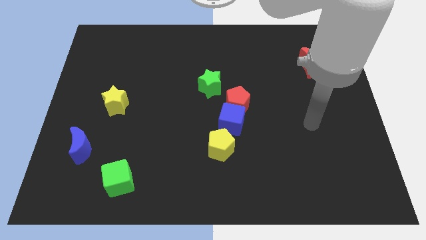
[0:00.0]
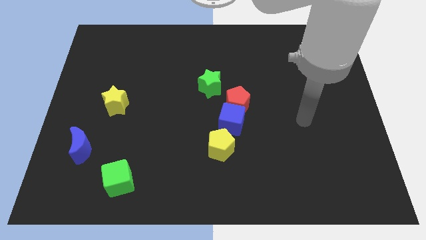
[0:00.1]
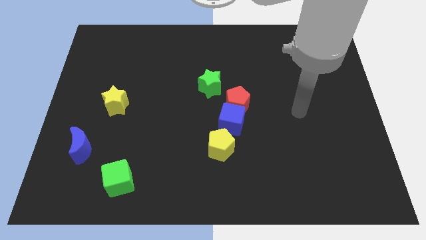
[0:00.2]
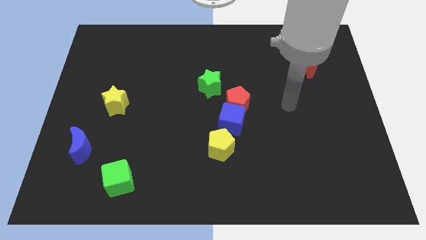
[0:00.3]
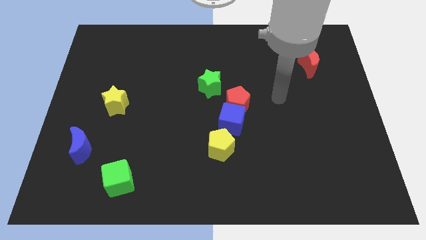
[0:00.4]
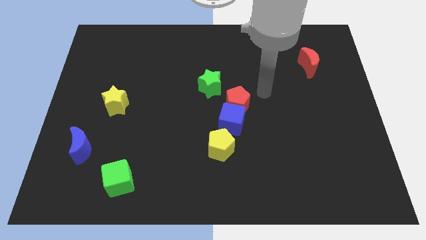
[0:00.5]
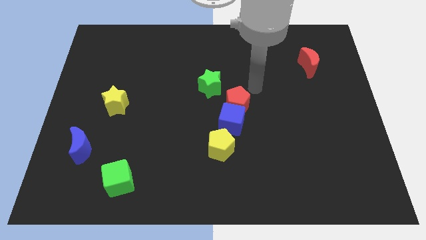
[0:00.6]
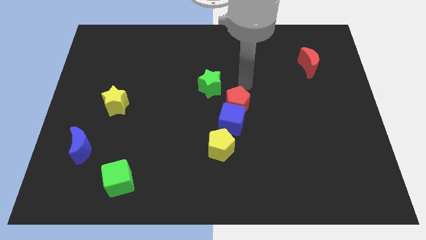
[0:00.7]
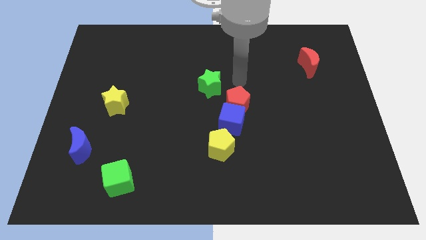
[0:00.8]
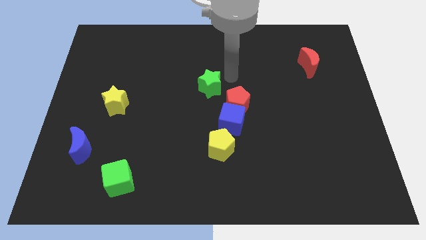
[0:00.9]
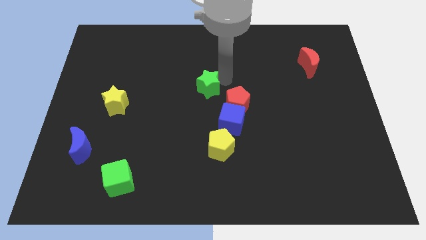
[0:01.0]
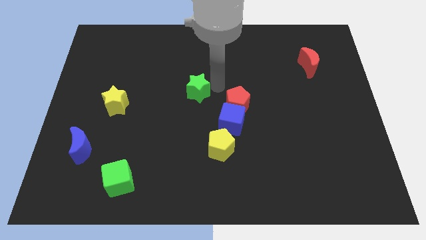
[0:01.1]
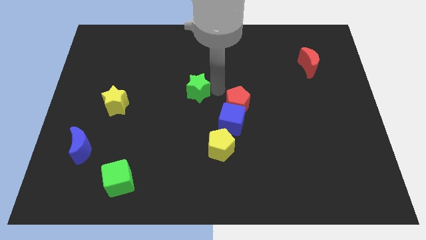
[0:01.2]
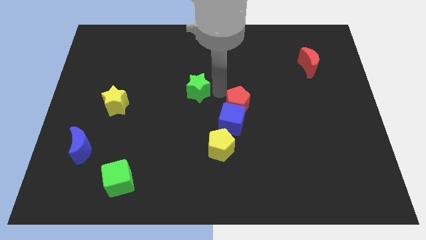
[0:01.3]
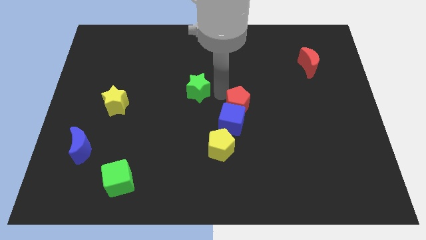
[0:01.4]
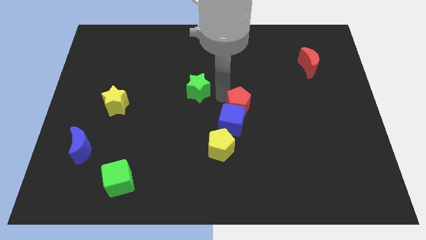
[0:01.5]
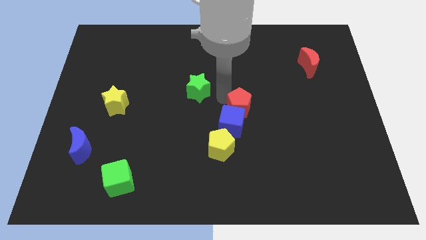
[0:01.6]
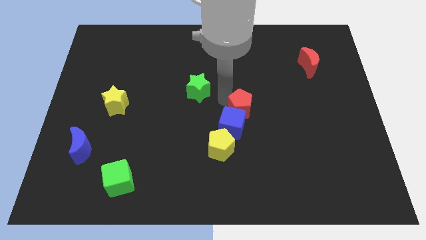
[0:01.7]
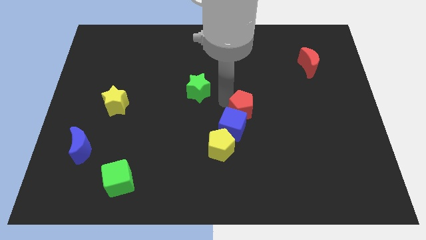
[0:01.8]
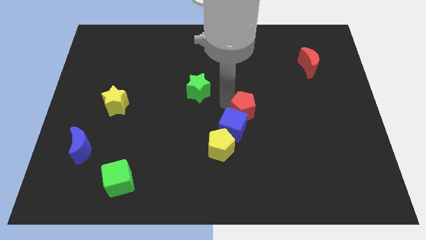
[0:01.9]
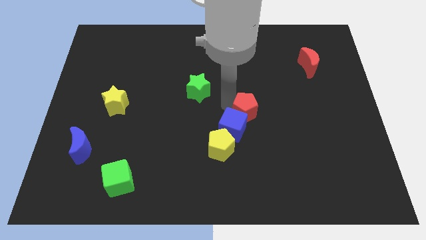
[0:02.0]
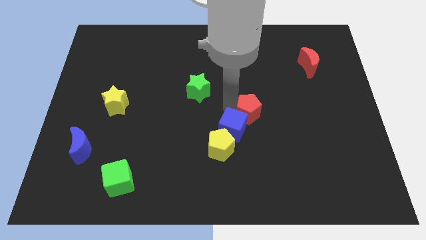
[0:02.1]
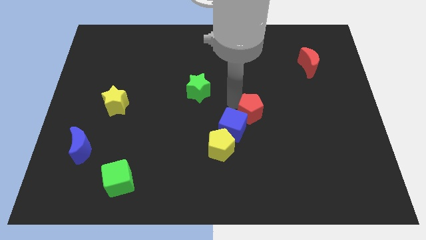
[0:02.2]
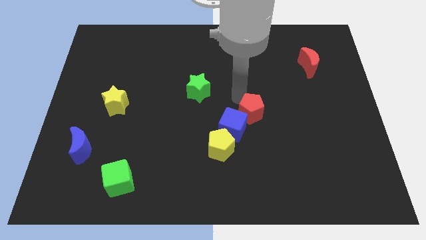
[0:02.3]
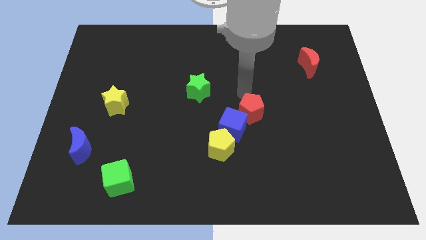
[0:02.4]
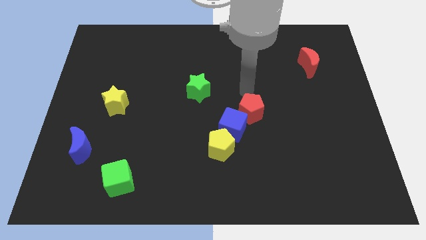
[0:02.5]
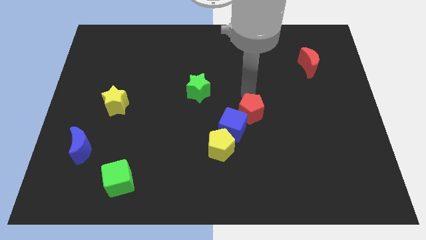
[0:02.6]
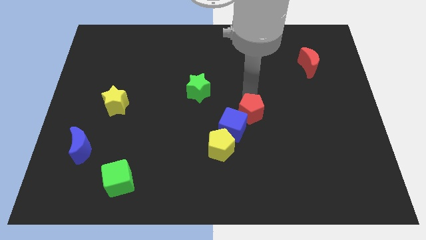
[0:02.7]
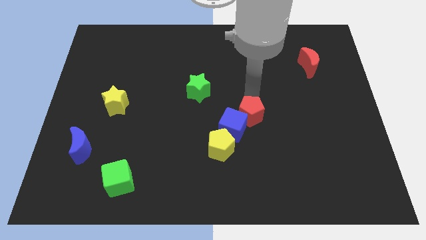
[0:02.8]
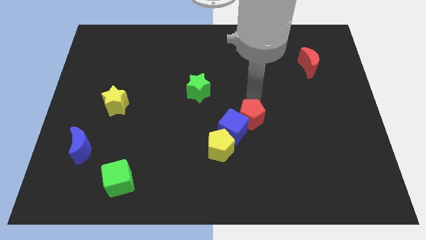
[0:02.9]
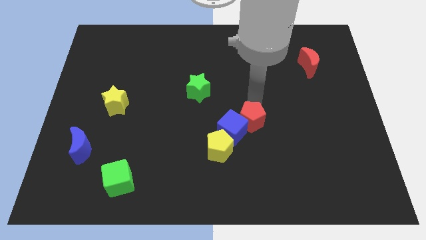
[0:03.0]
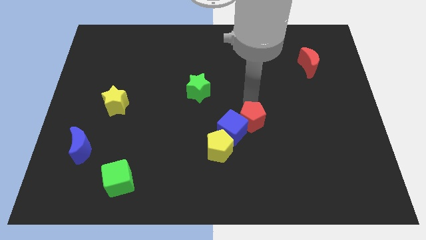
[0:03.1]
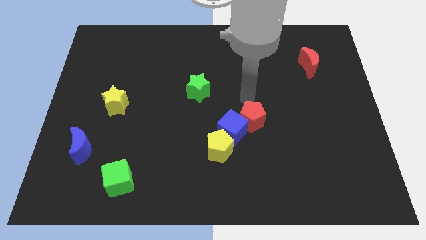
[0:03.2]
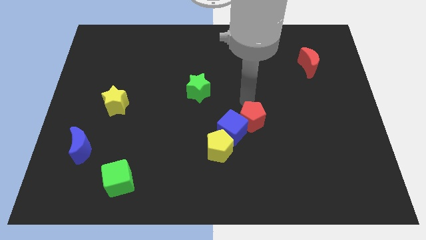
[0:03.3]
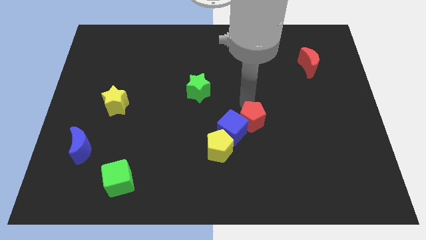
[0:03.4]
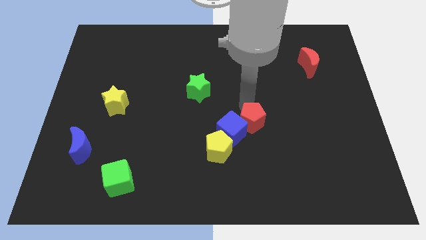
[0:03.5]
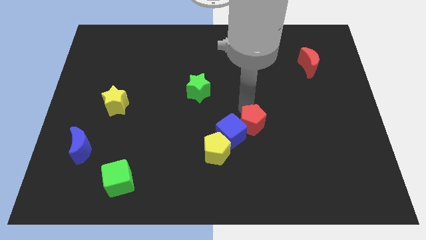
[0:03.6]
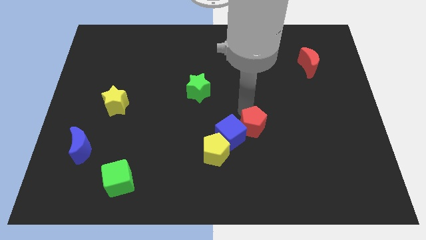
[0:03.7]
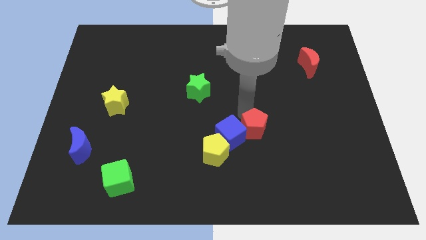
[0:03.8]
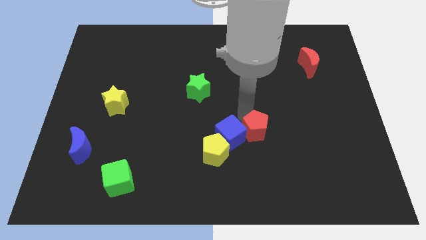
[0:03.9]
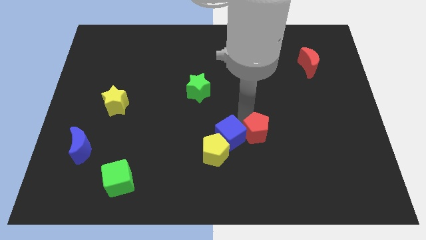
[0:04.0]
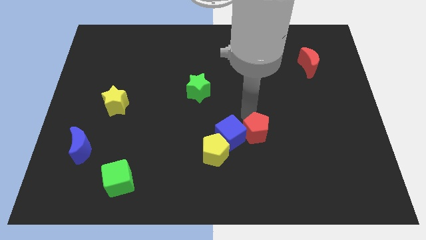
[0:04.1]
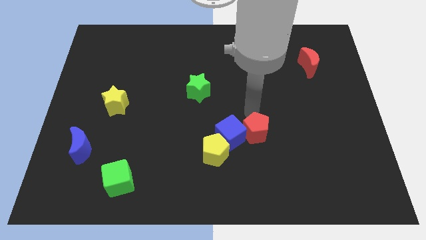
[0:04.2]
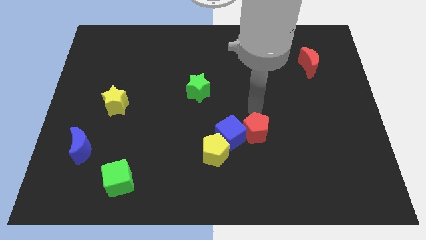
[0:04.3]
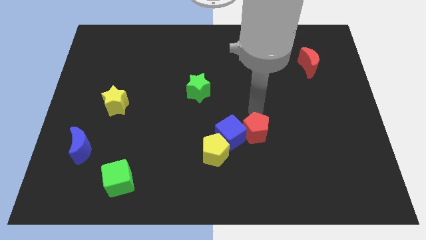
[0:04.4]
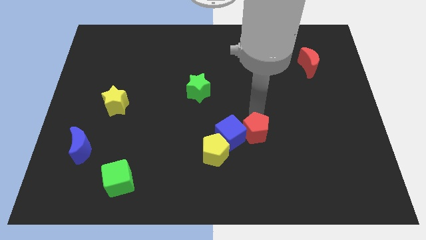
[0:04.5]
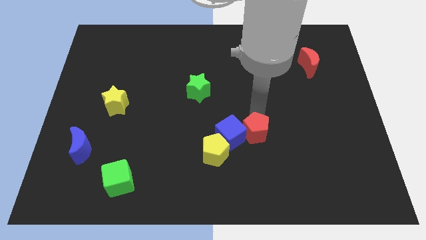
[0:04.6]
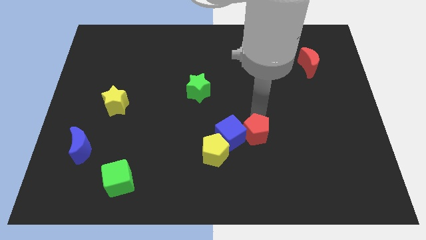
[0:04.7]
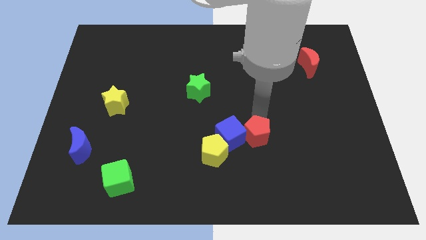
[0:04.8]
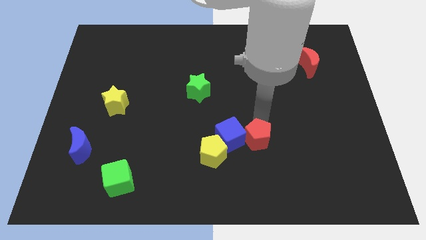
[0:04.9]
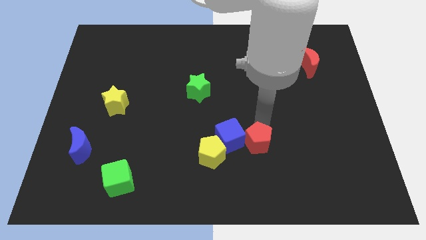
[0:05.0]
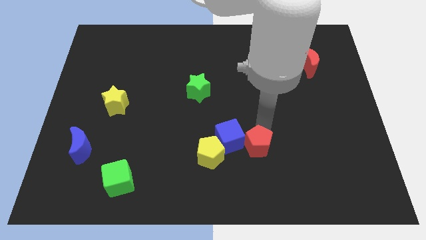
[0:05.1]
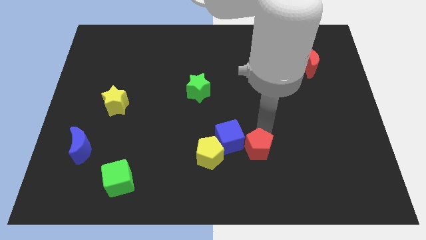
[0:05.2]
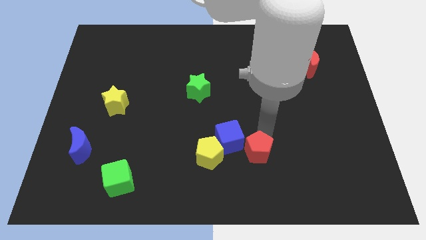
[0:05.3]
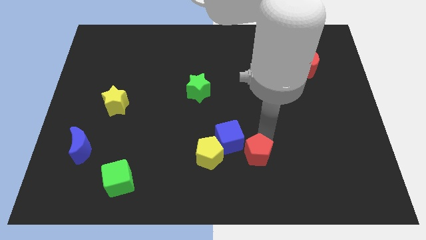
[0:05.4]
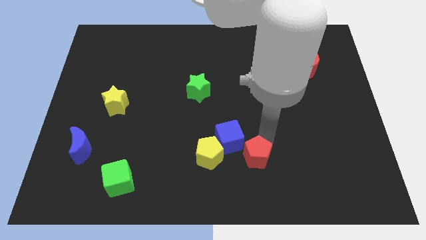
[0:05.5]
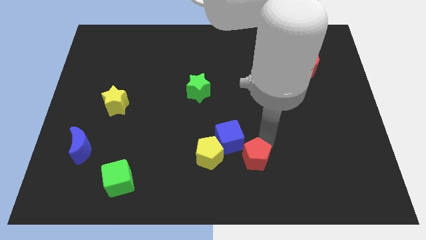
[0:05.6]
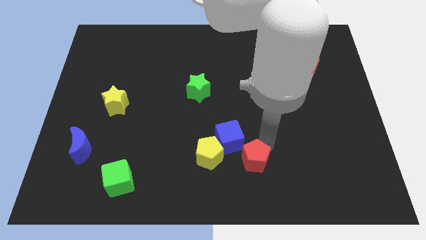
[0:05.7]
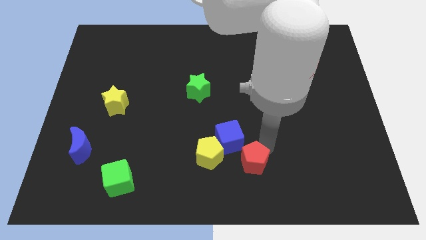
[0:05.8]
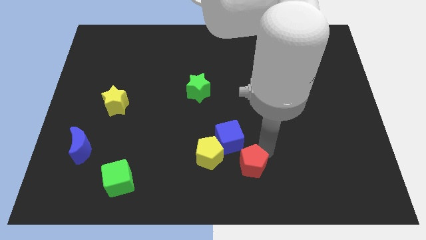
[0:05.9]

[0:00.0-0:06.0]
slide the red pentagon to the bottom

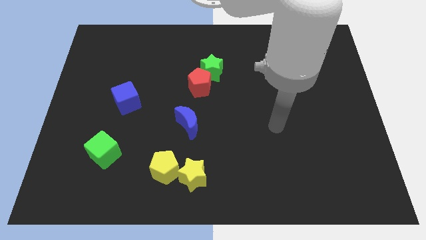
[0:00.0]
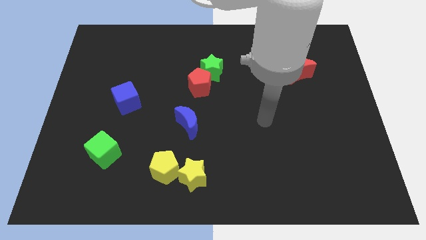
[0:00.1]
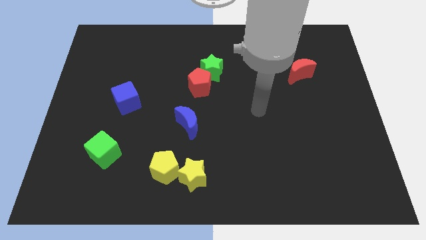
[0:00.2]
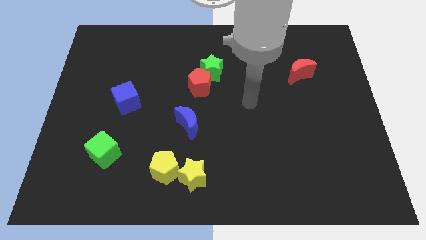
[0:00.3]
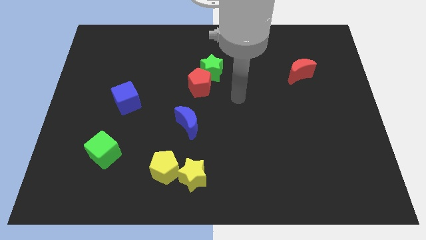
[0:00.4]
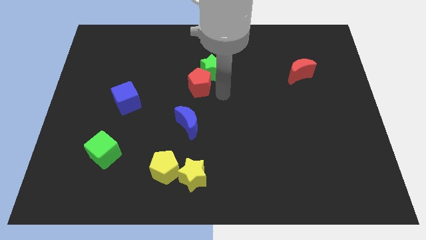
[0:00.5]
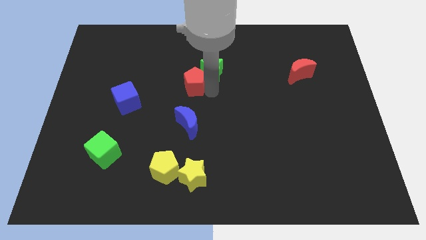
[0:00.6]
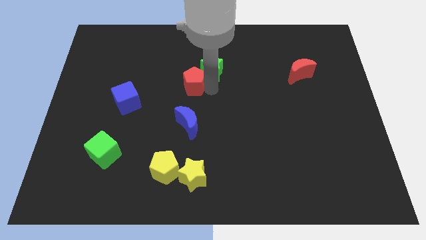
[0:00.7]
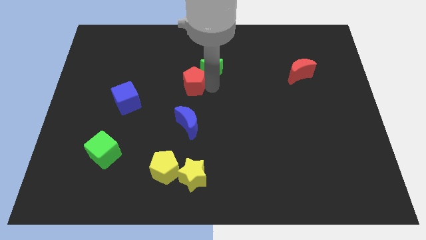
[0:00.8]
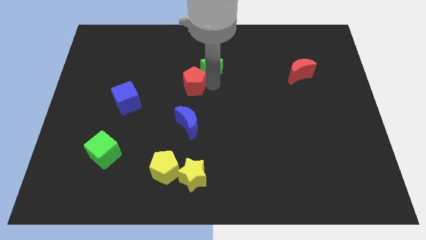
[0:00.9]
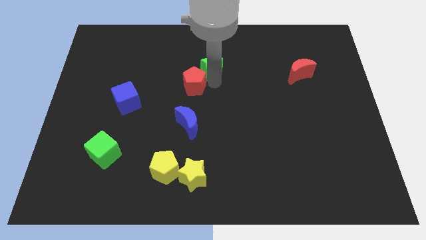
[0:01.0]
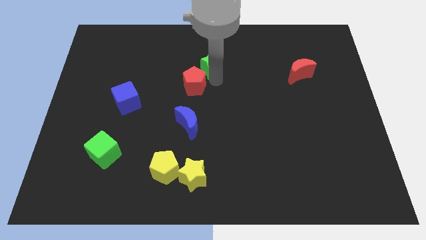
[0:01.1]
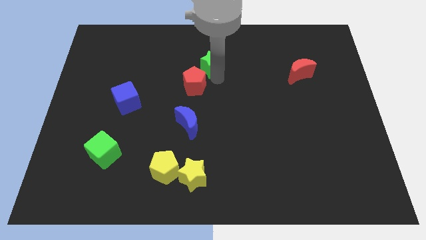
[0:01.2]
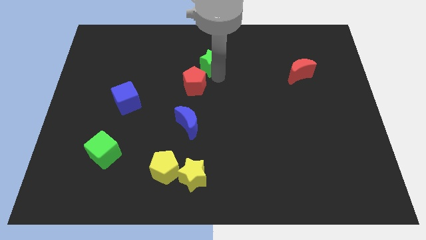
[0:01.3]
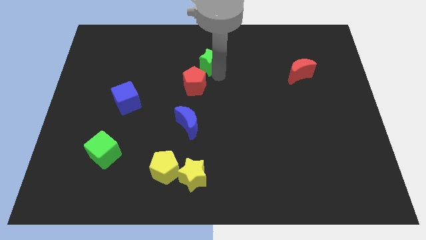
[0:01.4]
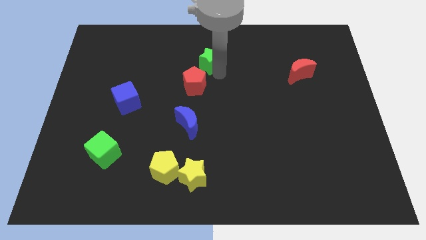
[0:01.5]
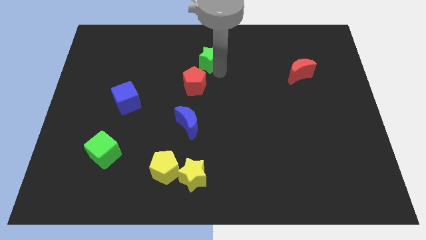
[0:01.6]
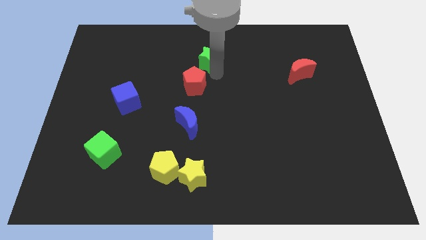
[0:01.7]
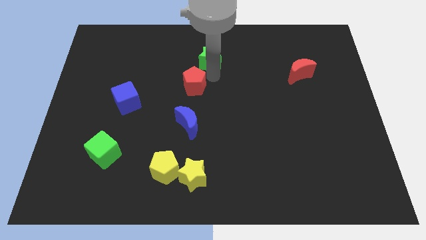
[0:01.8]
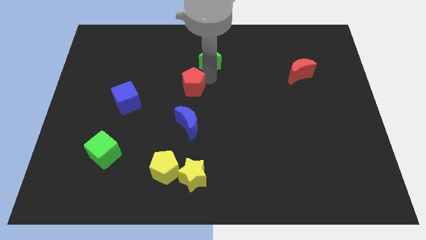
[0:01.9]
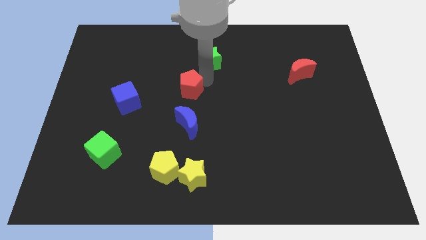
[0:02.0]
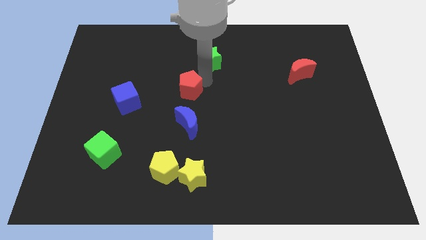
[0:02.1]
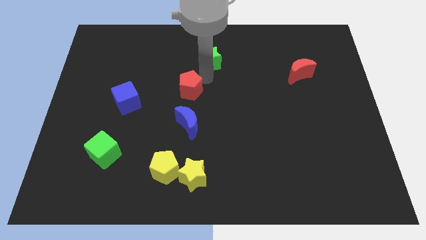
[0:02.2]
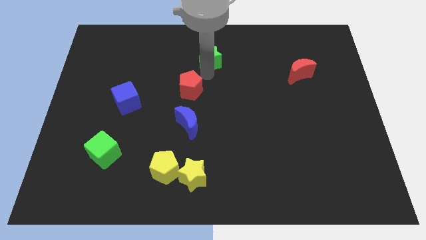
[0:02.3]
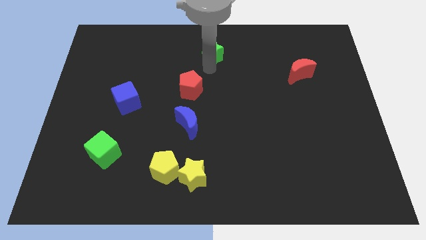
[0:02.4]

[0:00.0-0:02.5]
move the green star to the top side
